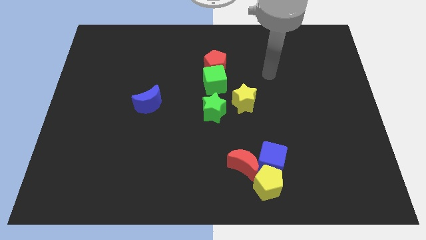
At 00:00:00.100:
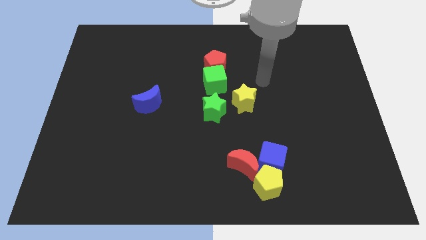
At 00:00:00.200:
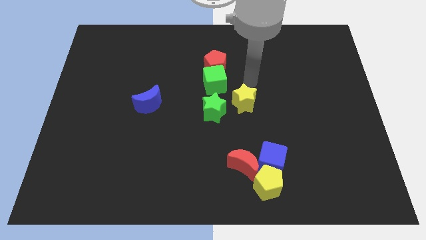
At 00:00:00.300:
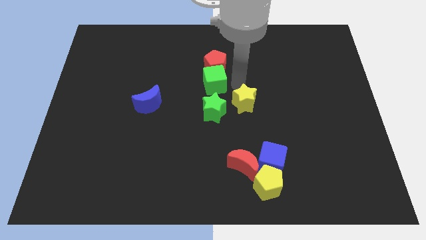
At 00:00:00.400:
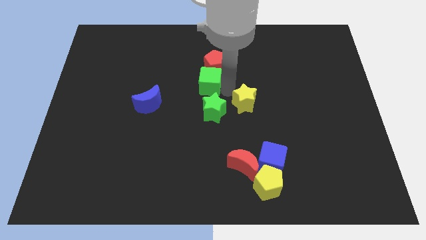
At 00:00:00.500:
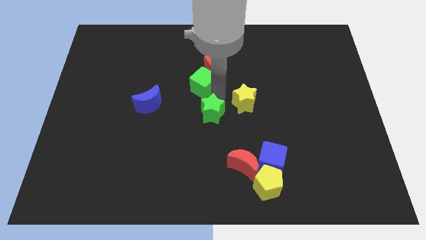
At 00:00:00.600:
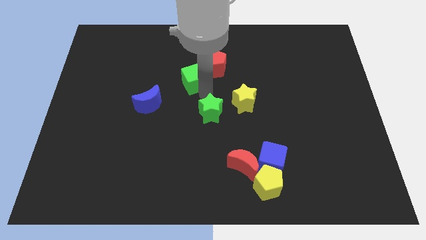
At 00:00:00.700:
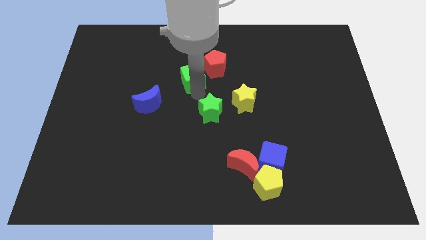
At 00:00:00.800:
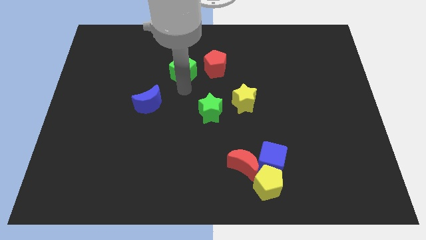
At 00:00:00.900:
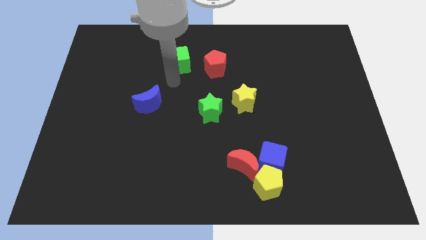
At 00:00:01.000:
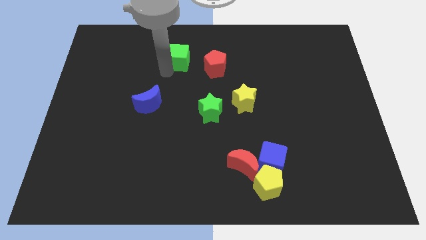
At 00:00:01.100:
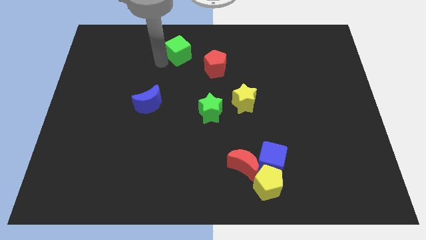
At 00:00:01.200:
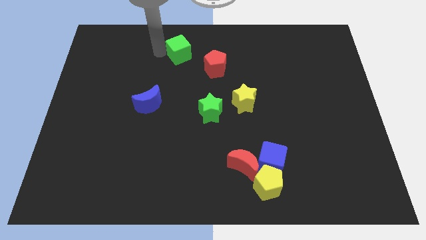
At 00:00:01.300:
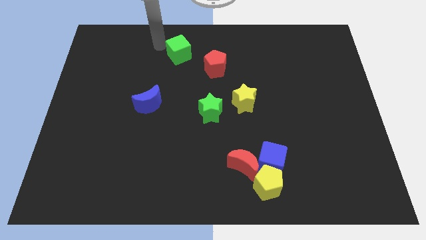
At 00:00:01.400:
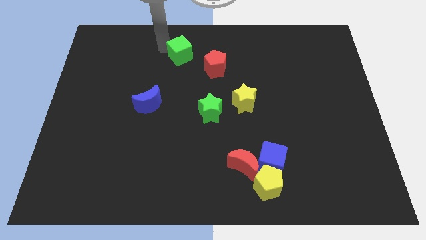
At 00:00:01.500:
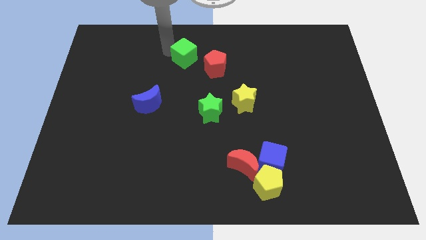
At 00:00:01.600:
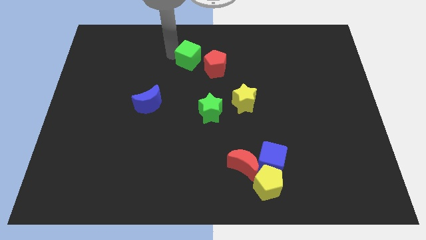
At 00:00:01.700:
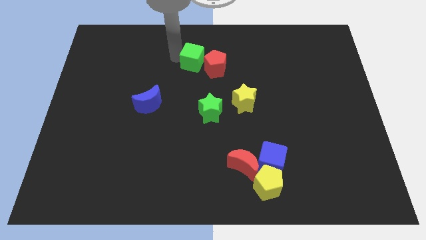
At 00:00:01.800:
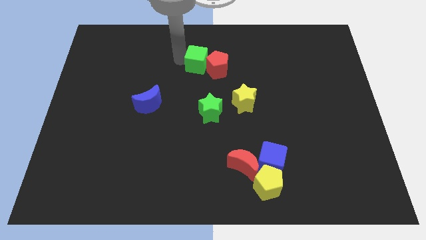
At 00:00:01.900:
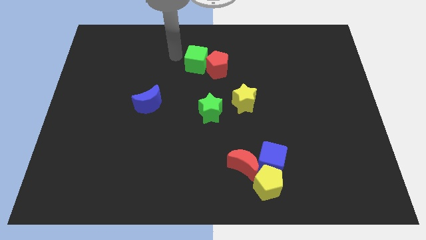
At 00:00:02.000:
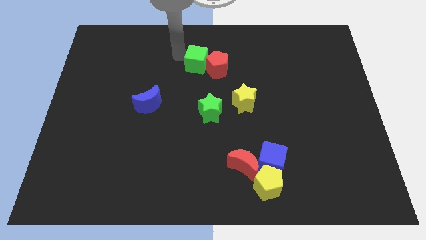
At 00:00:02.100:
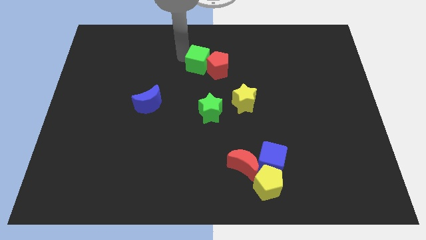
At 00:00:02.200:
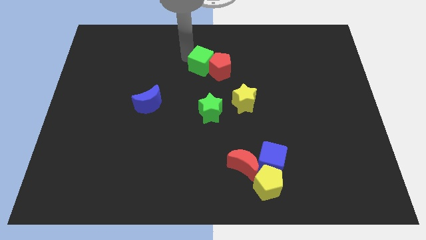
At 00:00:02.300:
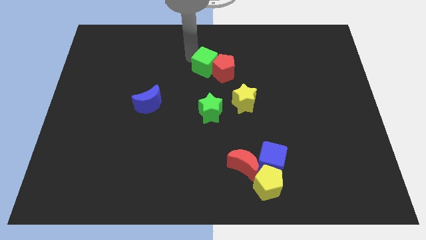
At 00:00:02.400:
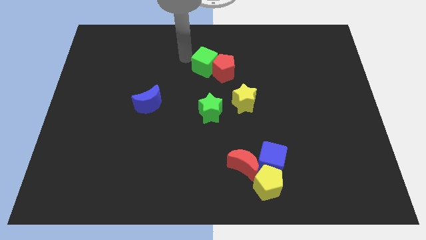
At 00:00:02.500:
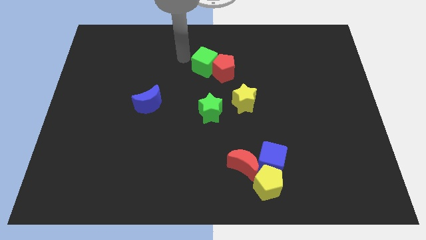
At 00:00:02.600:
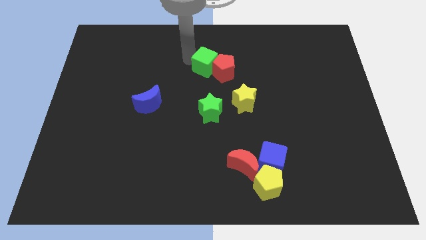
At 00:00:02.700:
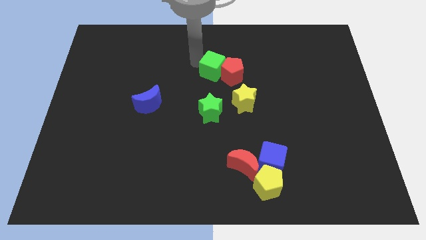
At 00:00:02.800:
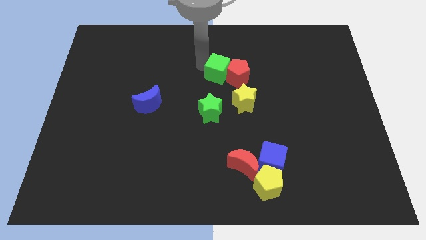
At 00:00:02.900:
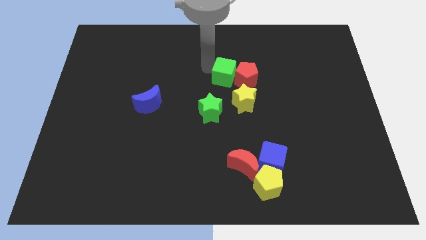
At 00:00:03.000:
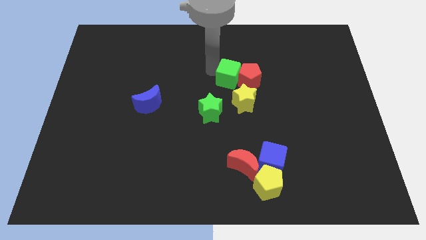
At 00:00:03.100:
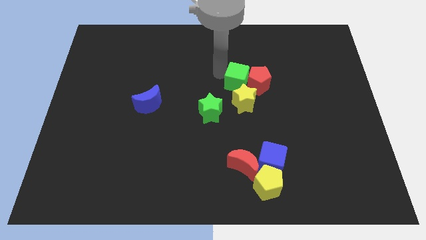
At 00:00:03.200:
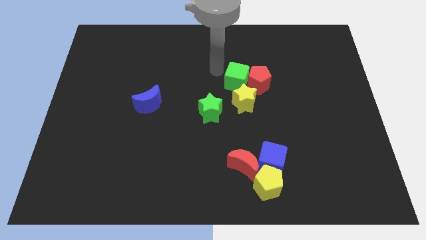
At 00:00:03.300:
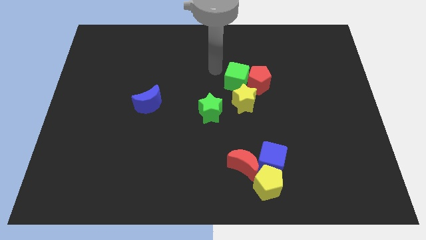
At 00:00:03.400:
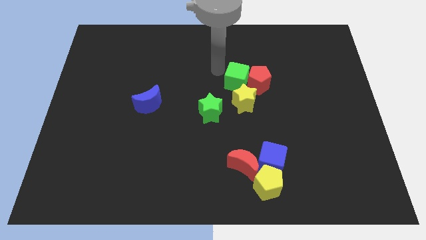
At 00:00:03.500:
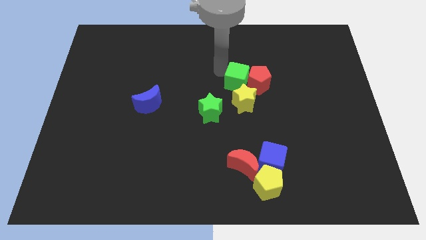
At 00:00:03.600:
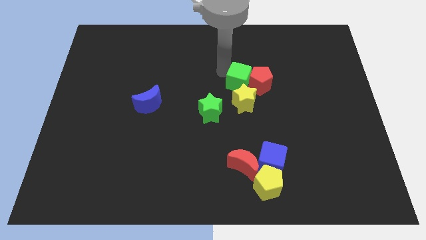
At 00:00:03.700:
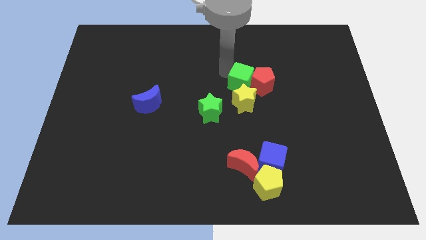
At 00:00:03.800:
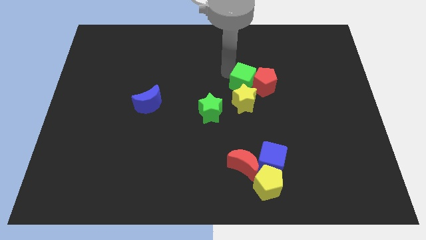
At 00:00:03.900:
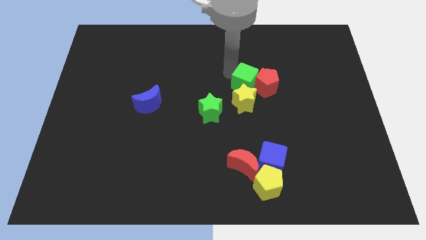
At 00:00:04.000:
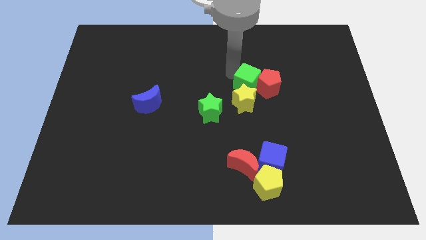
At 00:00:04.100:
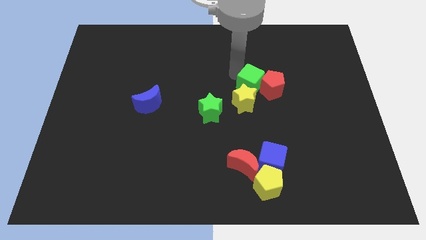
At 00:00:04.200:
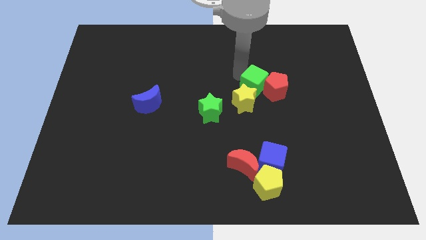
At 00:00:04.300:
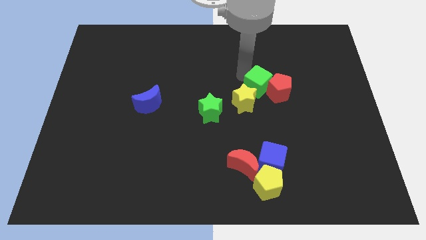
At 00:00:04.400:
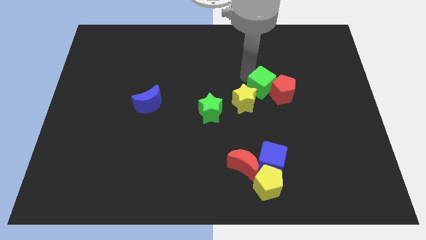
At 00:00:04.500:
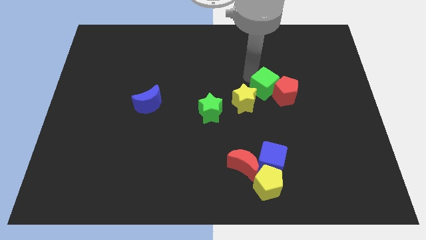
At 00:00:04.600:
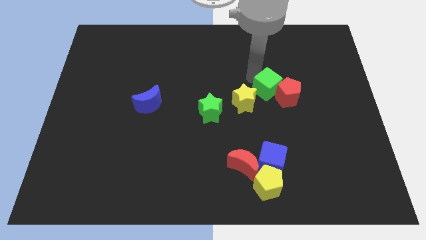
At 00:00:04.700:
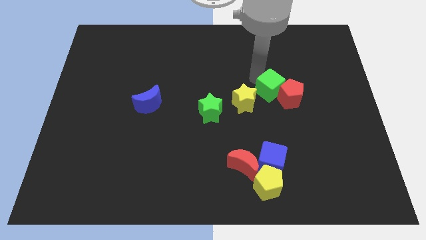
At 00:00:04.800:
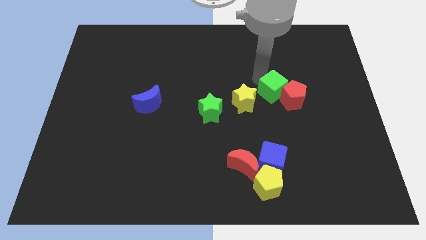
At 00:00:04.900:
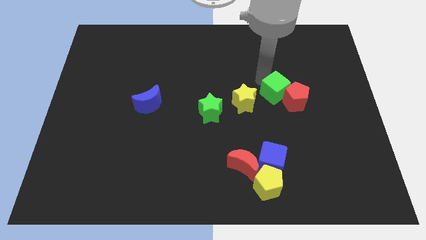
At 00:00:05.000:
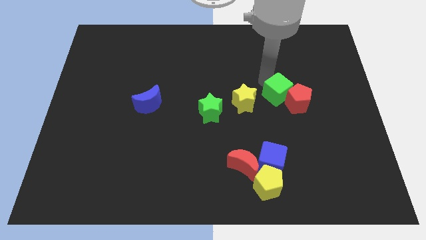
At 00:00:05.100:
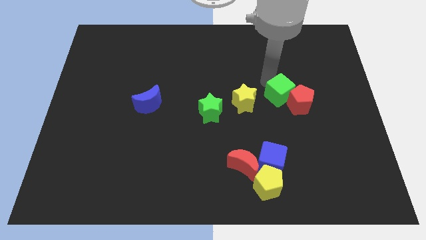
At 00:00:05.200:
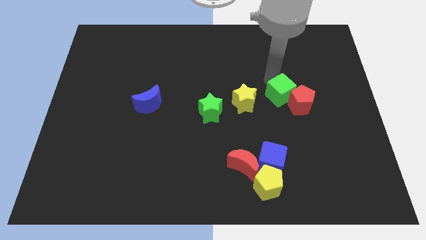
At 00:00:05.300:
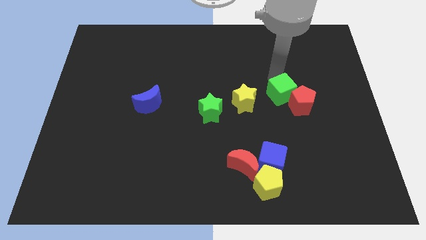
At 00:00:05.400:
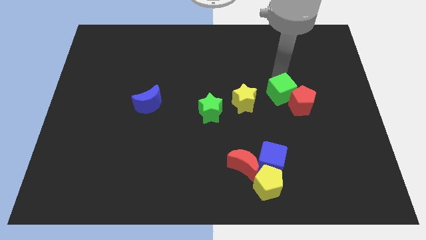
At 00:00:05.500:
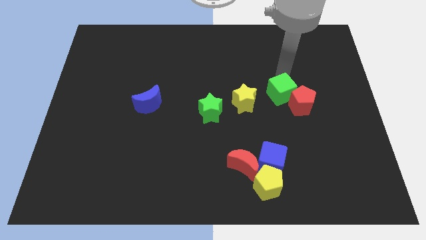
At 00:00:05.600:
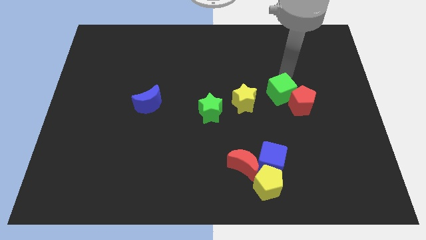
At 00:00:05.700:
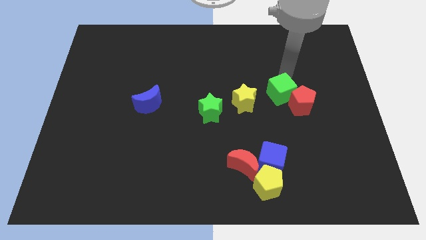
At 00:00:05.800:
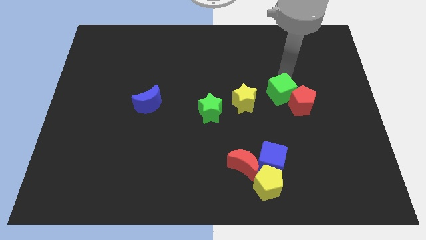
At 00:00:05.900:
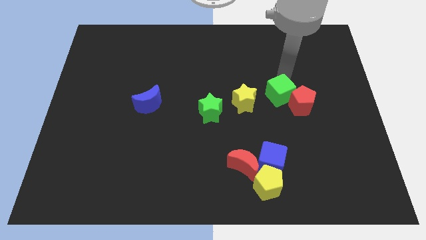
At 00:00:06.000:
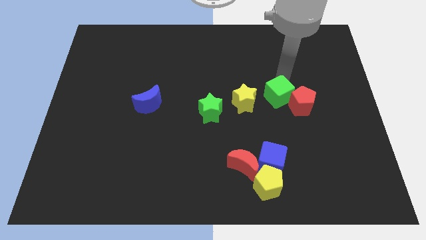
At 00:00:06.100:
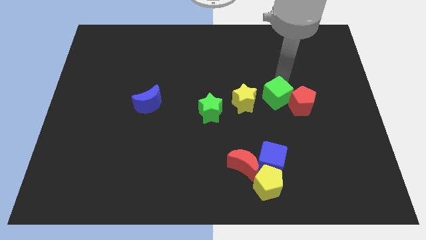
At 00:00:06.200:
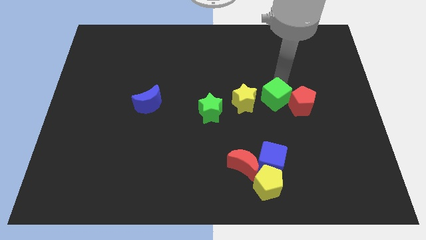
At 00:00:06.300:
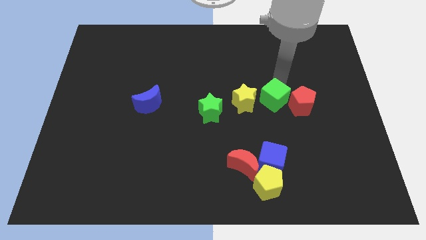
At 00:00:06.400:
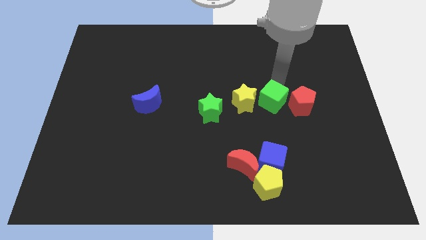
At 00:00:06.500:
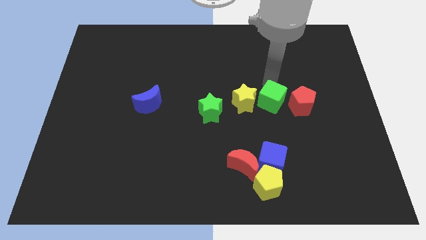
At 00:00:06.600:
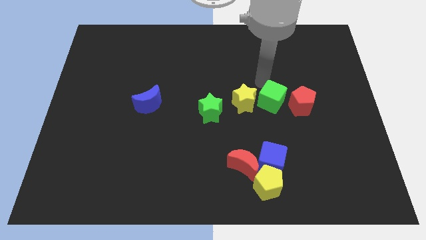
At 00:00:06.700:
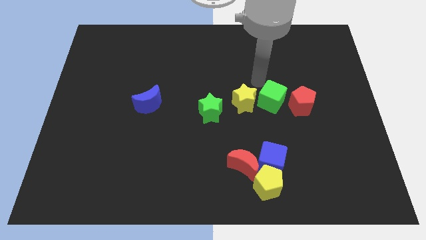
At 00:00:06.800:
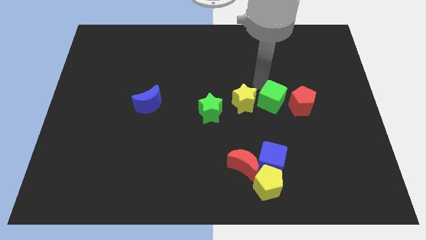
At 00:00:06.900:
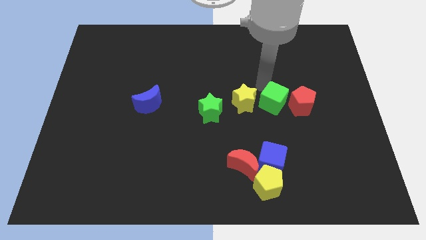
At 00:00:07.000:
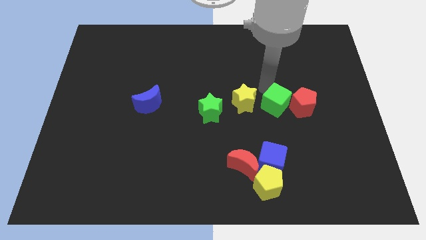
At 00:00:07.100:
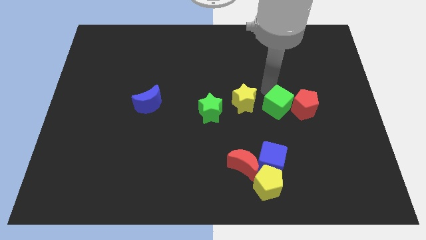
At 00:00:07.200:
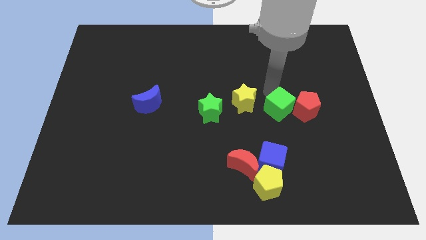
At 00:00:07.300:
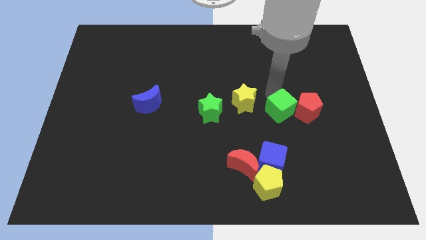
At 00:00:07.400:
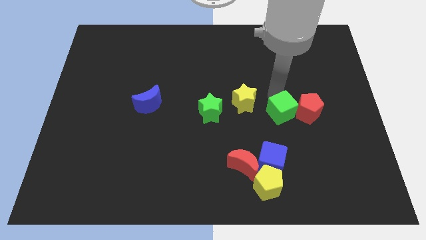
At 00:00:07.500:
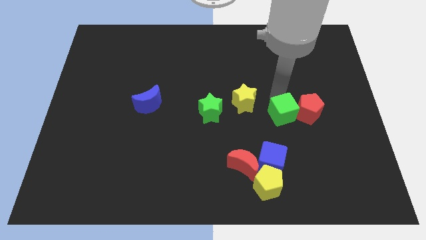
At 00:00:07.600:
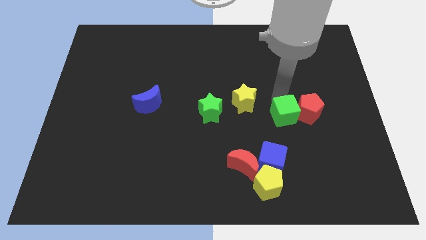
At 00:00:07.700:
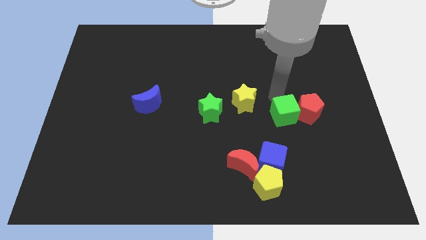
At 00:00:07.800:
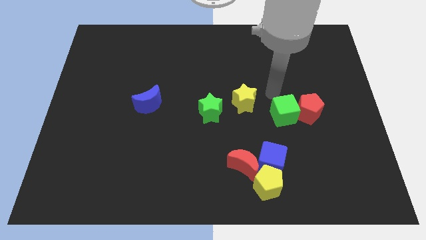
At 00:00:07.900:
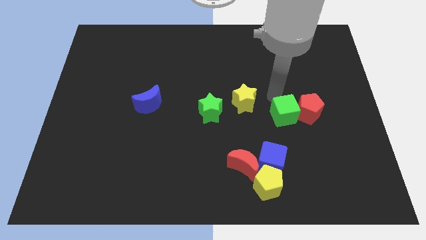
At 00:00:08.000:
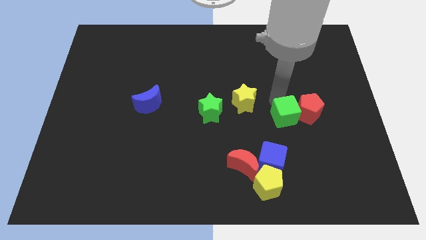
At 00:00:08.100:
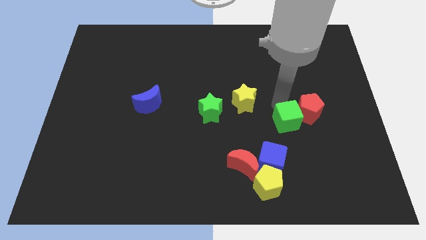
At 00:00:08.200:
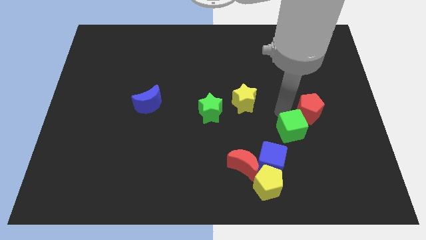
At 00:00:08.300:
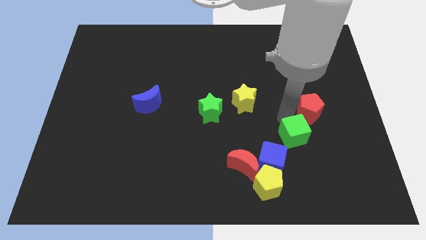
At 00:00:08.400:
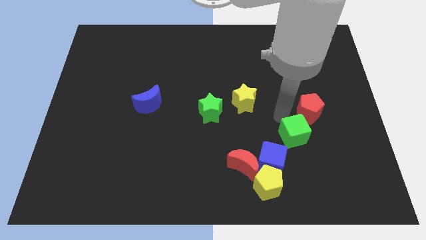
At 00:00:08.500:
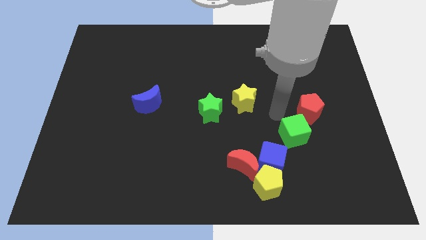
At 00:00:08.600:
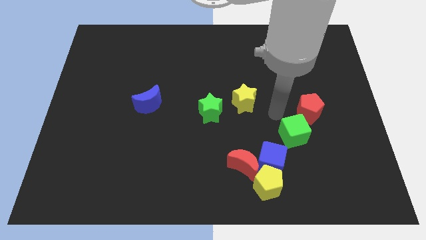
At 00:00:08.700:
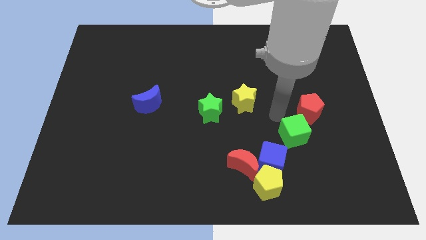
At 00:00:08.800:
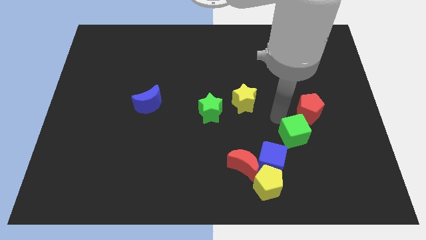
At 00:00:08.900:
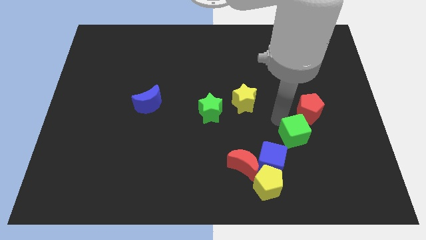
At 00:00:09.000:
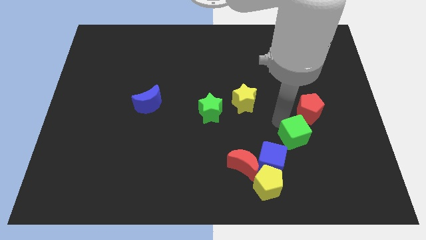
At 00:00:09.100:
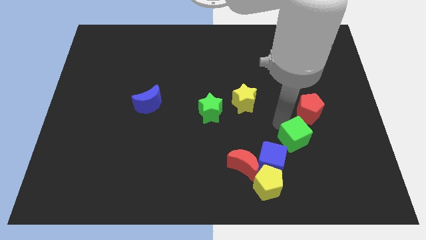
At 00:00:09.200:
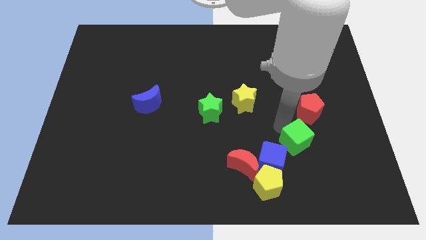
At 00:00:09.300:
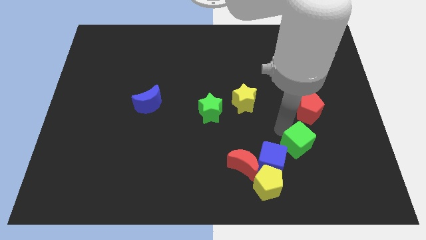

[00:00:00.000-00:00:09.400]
move the green cube just right of the blue cube
